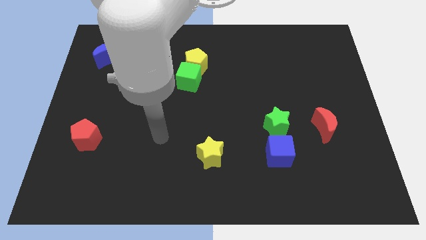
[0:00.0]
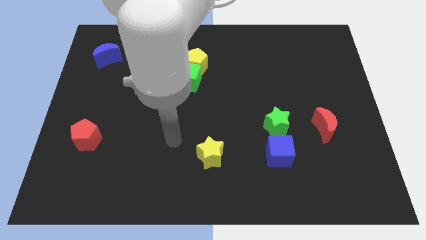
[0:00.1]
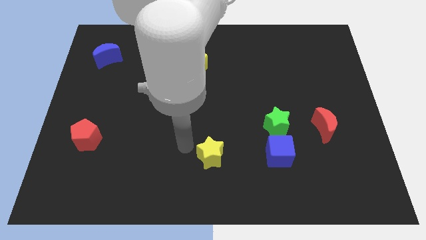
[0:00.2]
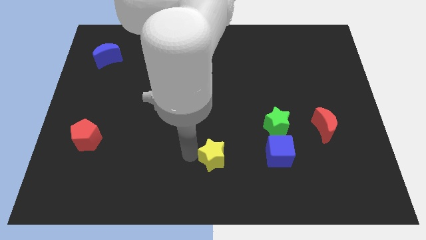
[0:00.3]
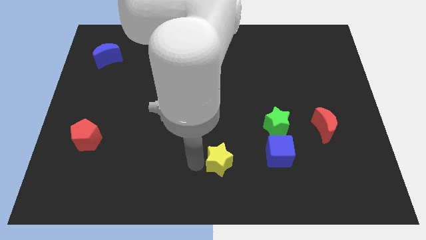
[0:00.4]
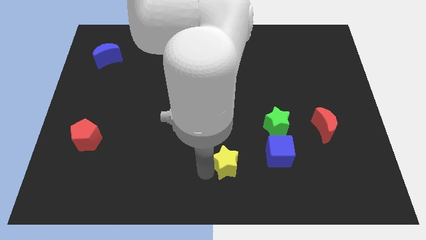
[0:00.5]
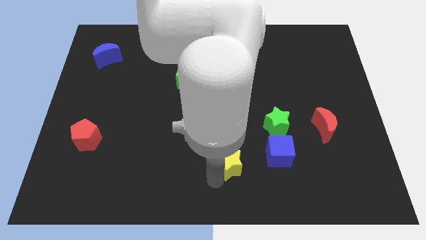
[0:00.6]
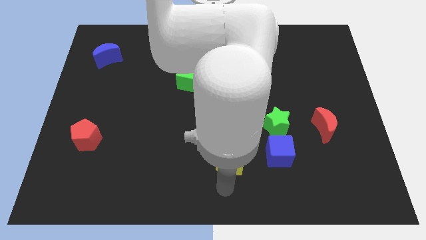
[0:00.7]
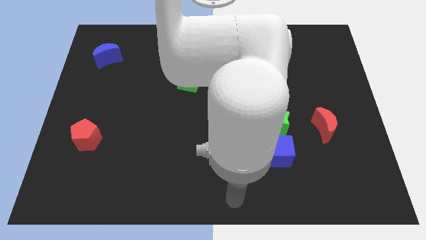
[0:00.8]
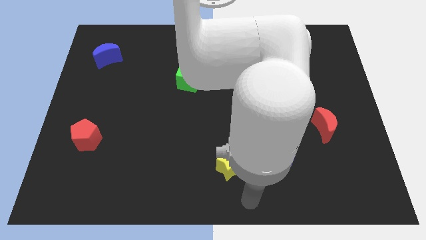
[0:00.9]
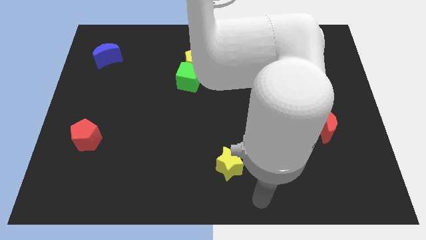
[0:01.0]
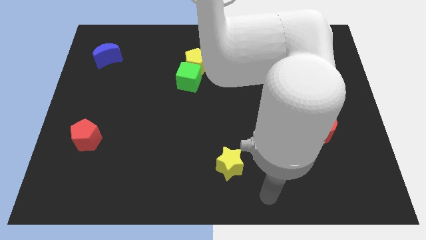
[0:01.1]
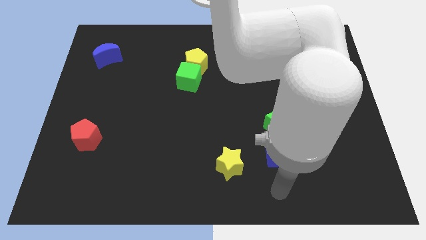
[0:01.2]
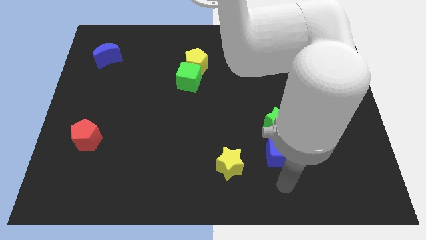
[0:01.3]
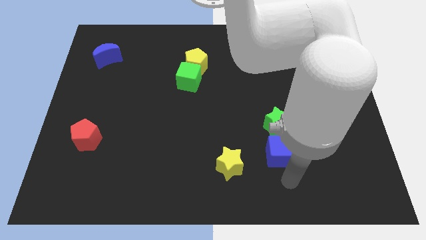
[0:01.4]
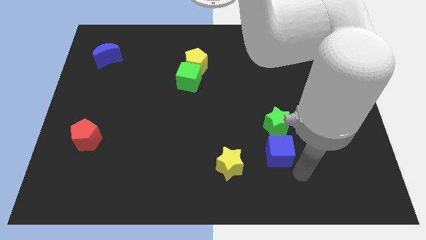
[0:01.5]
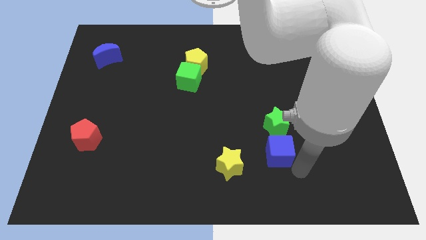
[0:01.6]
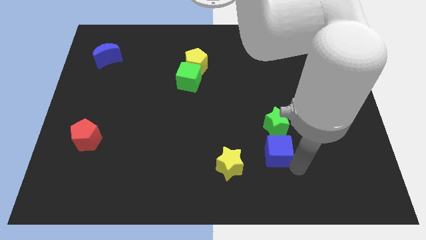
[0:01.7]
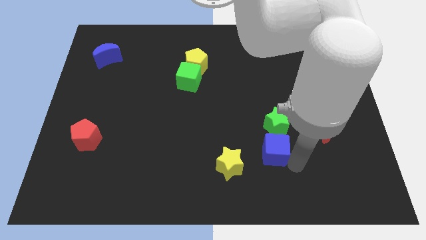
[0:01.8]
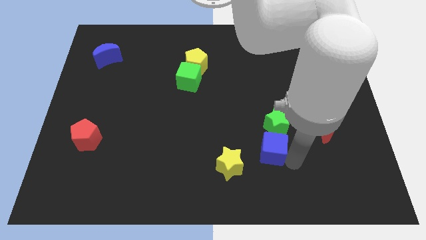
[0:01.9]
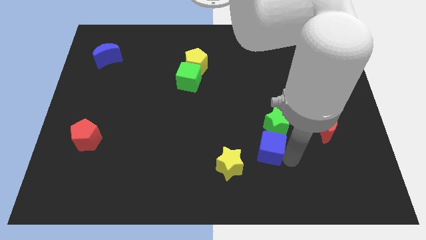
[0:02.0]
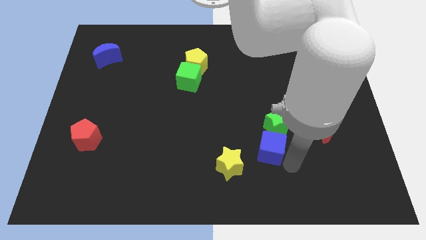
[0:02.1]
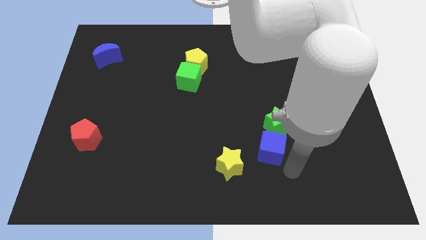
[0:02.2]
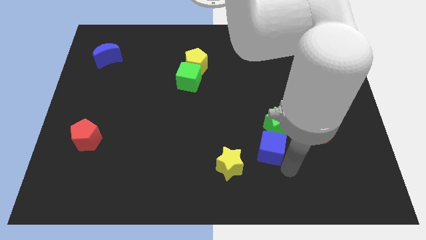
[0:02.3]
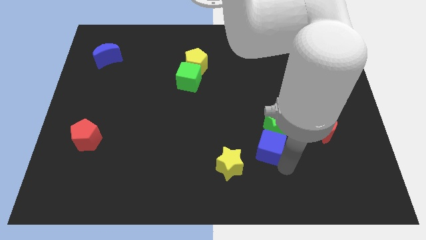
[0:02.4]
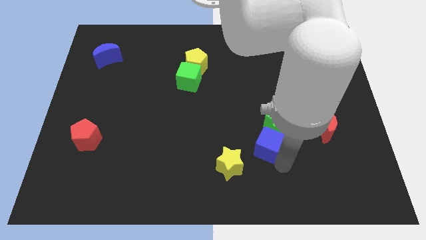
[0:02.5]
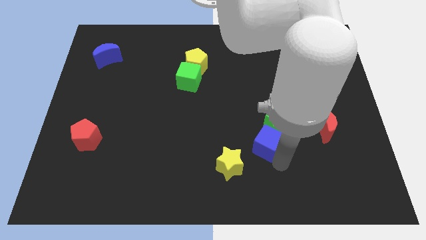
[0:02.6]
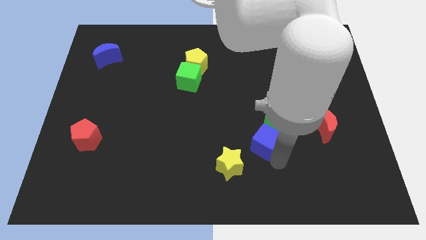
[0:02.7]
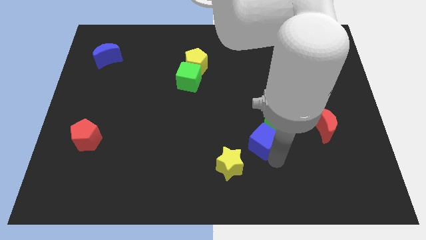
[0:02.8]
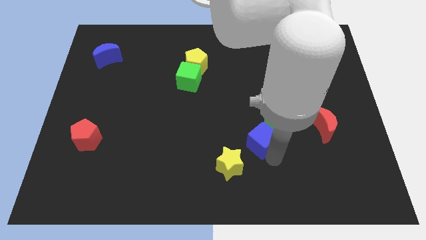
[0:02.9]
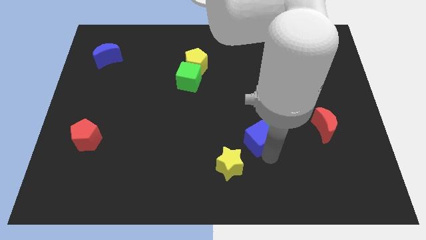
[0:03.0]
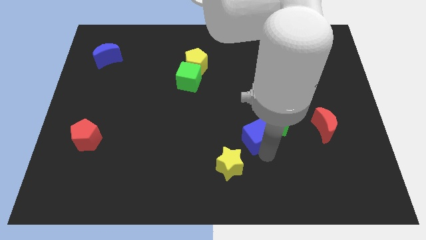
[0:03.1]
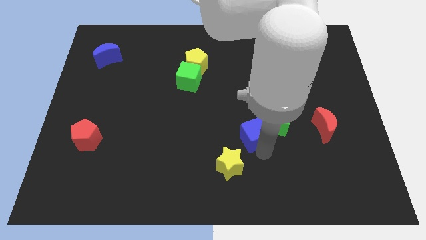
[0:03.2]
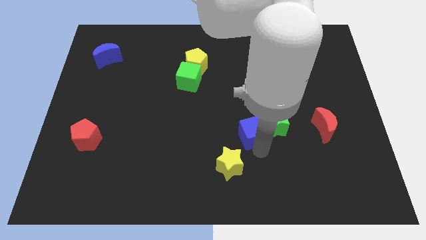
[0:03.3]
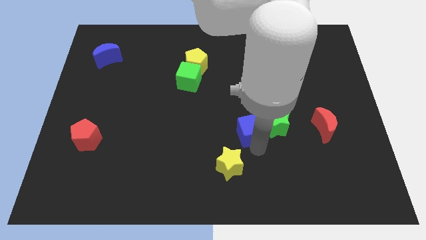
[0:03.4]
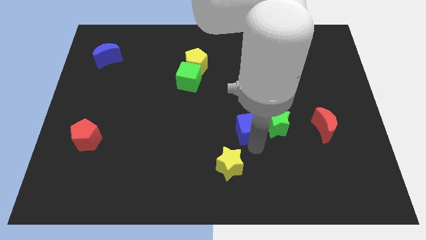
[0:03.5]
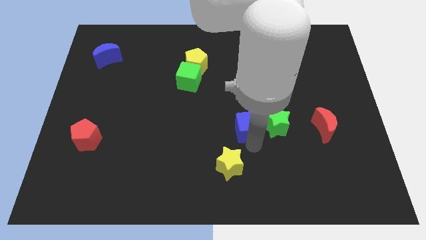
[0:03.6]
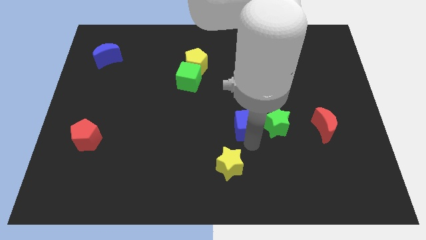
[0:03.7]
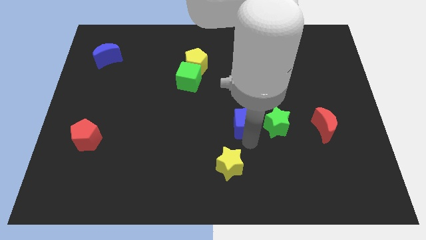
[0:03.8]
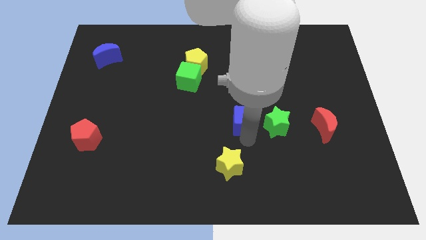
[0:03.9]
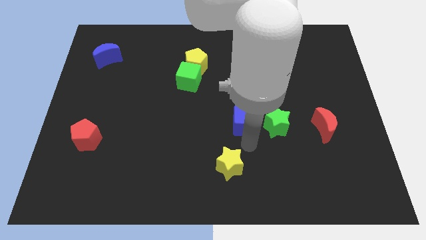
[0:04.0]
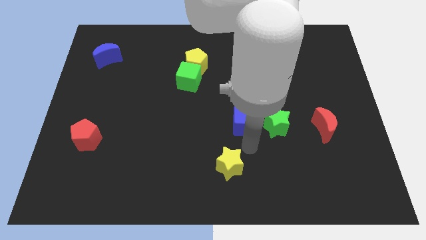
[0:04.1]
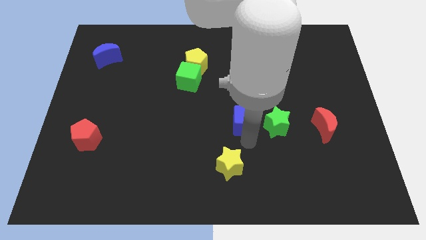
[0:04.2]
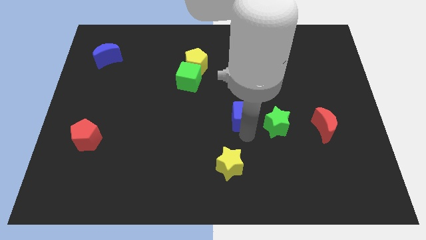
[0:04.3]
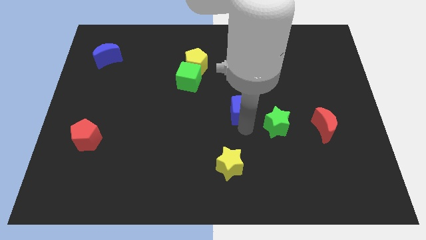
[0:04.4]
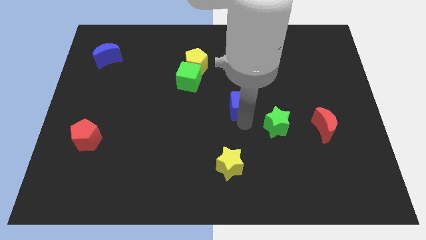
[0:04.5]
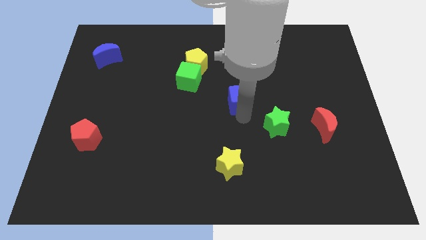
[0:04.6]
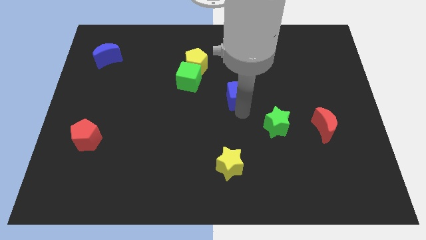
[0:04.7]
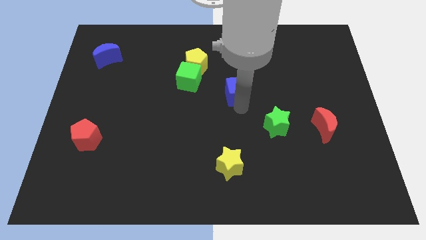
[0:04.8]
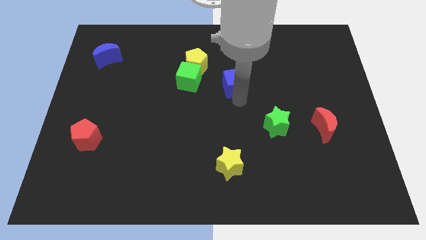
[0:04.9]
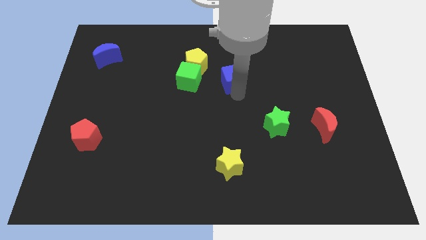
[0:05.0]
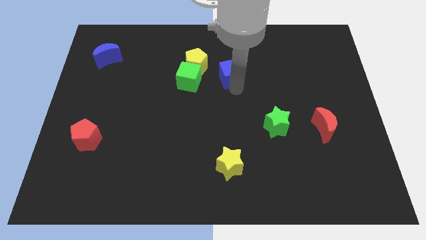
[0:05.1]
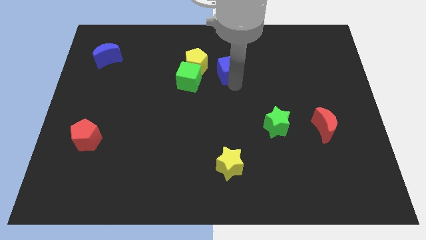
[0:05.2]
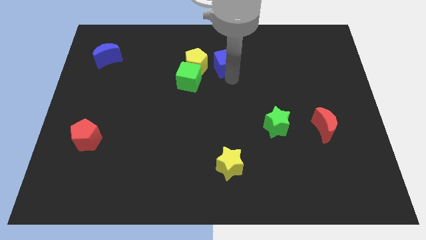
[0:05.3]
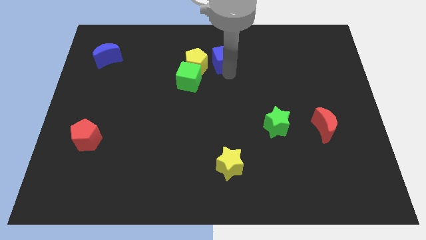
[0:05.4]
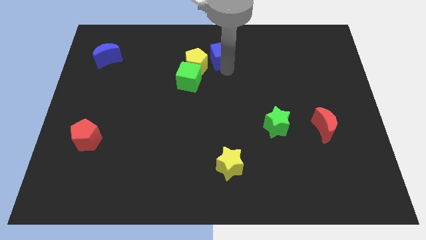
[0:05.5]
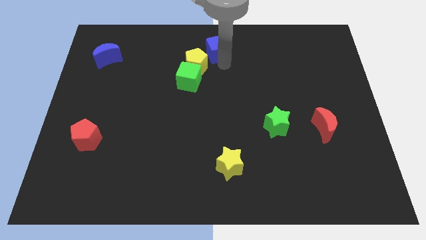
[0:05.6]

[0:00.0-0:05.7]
push the blue cube to the towards your base

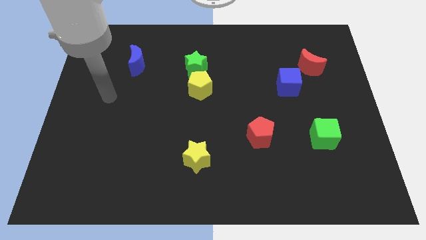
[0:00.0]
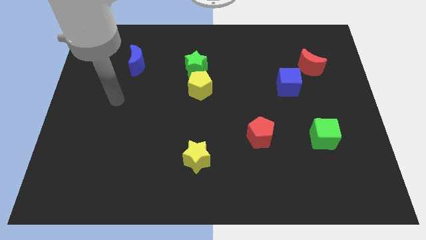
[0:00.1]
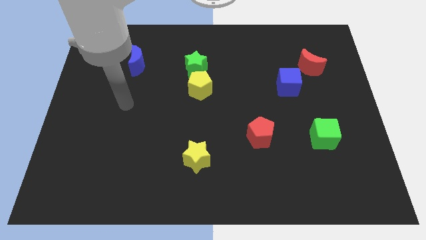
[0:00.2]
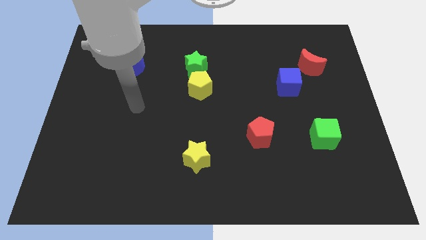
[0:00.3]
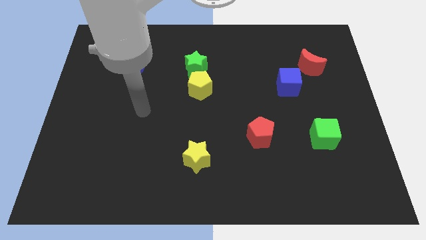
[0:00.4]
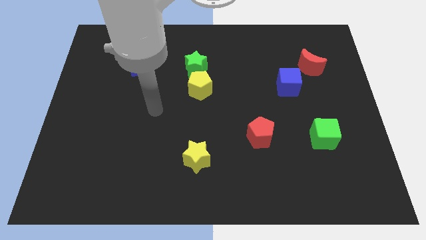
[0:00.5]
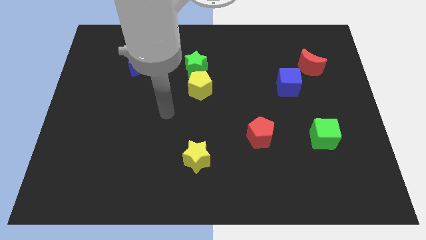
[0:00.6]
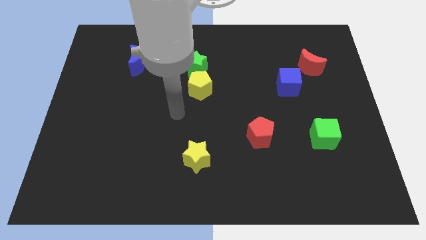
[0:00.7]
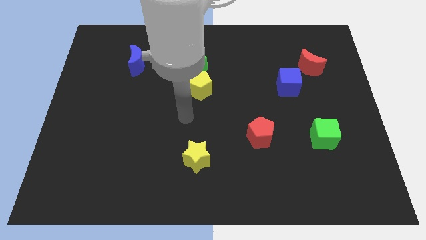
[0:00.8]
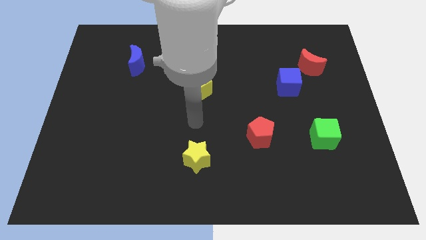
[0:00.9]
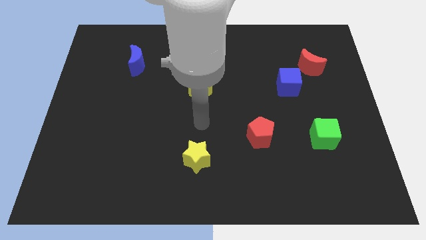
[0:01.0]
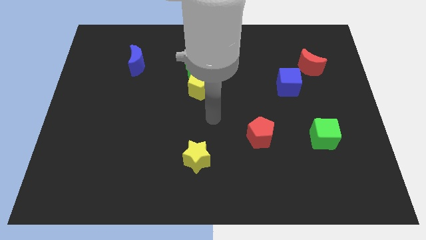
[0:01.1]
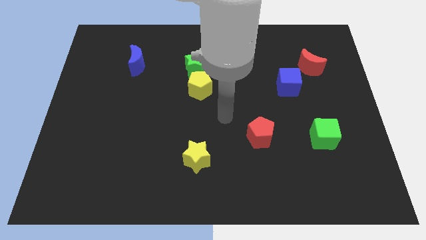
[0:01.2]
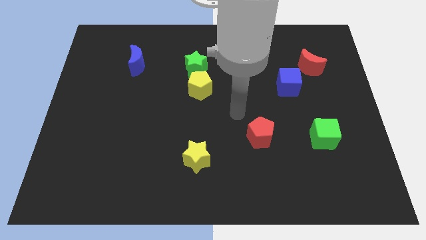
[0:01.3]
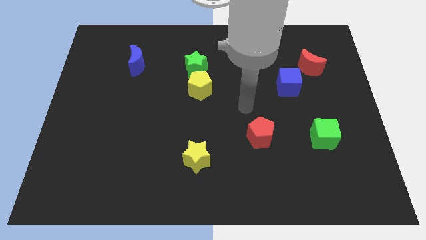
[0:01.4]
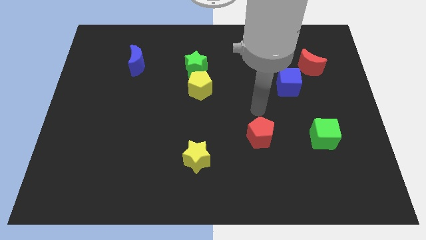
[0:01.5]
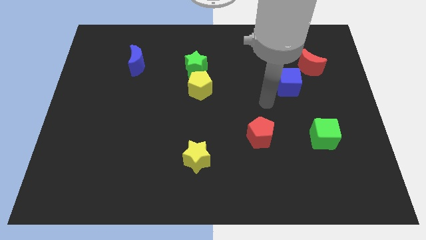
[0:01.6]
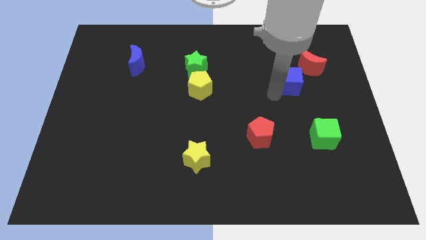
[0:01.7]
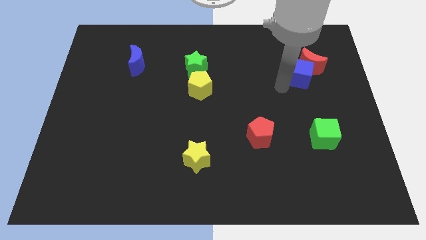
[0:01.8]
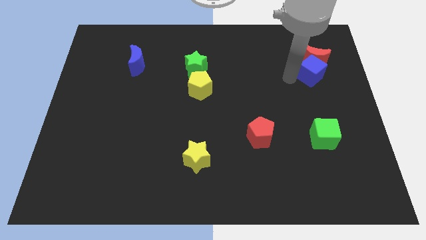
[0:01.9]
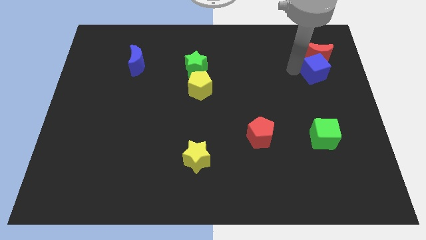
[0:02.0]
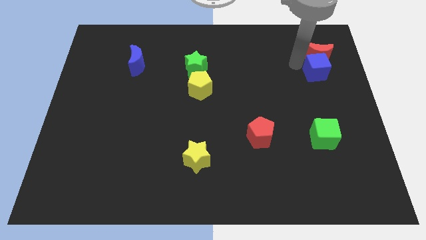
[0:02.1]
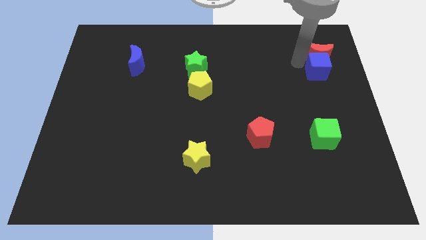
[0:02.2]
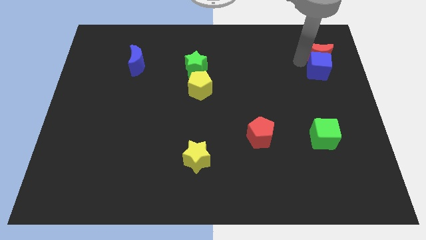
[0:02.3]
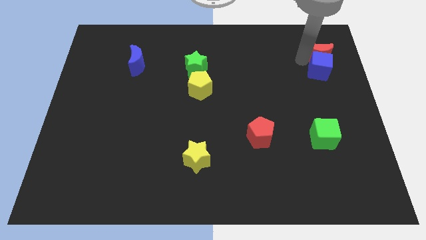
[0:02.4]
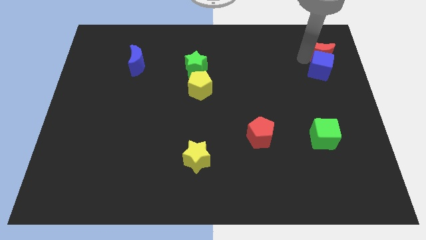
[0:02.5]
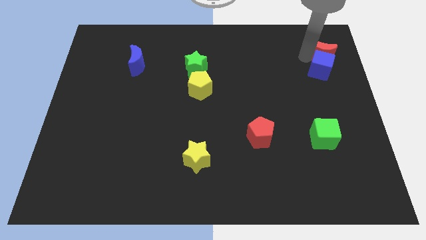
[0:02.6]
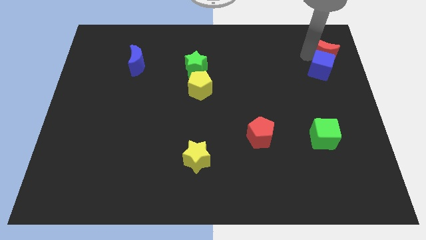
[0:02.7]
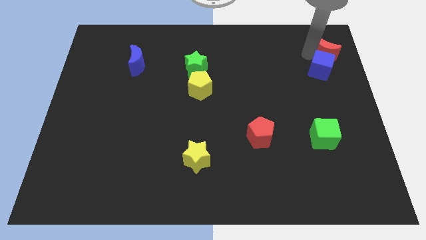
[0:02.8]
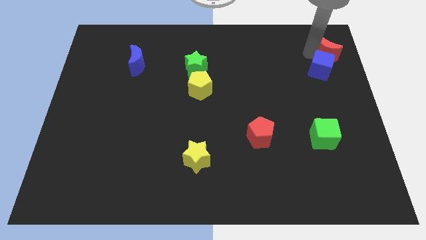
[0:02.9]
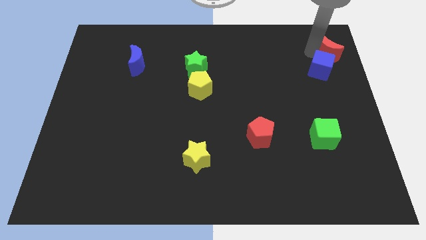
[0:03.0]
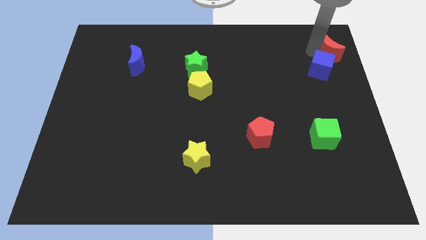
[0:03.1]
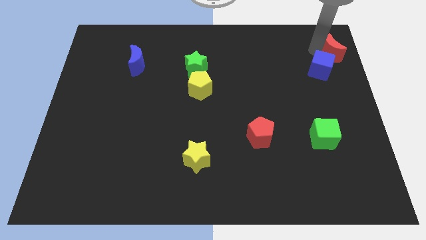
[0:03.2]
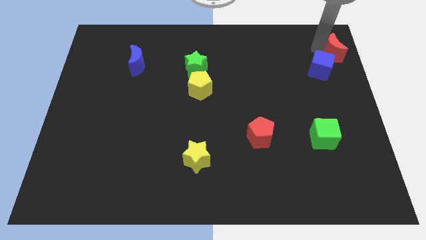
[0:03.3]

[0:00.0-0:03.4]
slide the red moon to the top right
